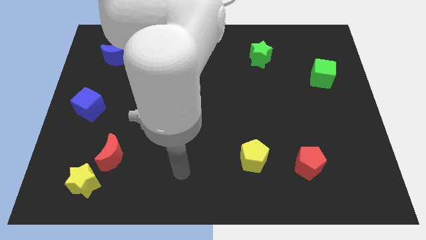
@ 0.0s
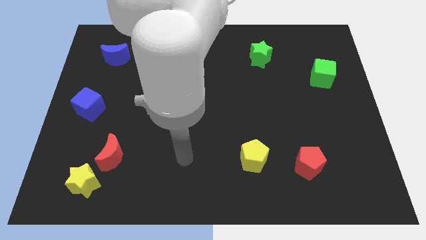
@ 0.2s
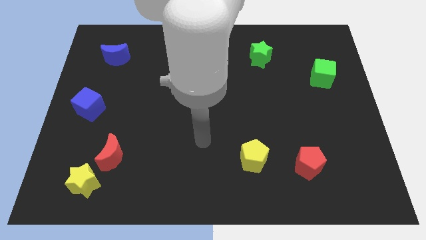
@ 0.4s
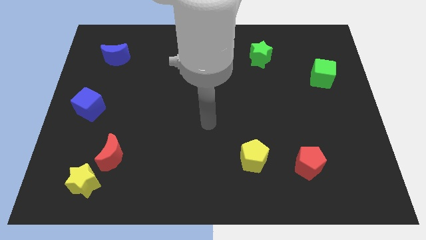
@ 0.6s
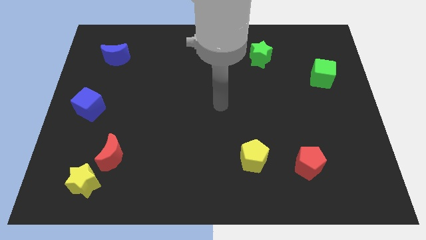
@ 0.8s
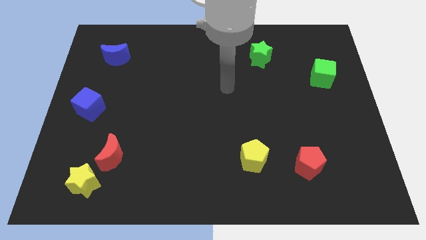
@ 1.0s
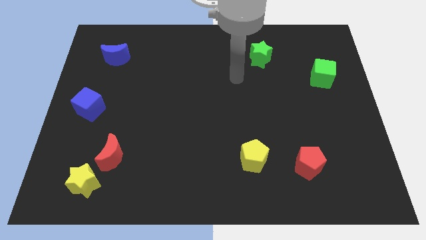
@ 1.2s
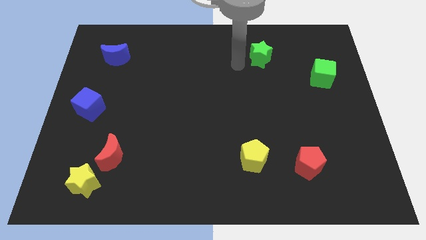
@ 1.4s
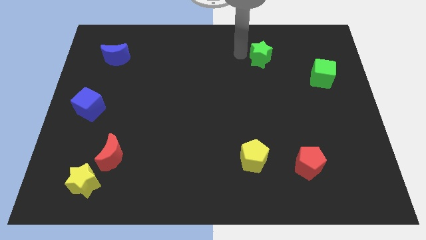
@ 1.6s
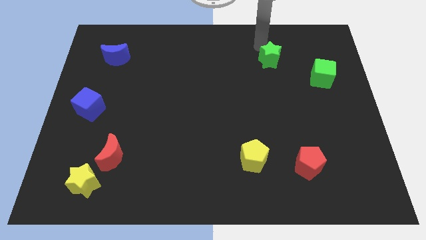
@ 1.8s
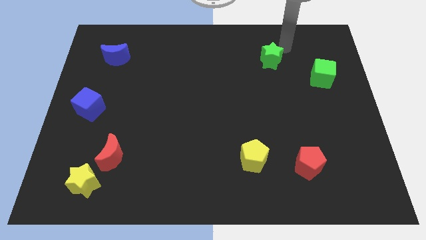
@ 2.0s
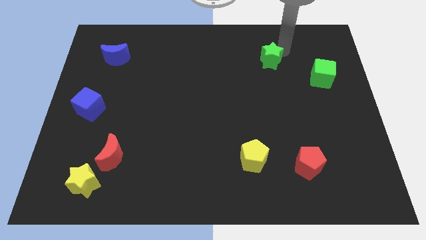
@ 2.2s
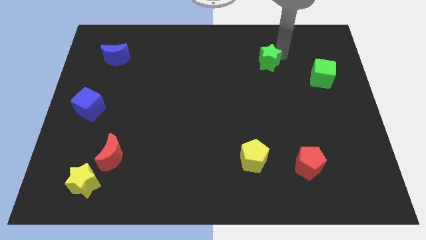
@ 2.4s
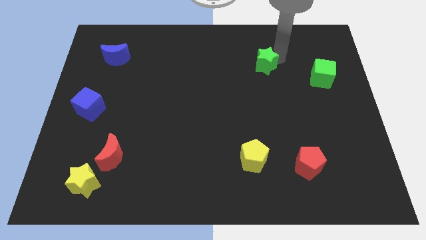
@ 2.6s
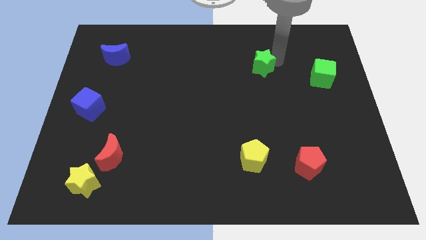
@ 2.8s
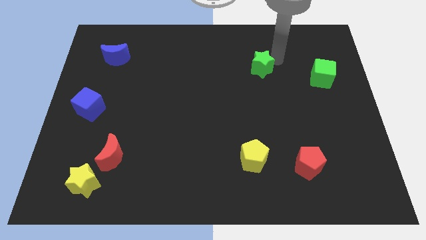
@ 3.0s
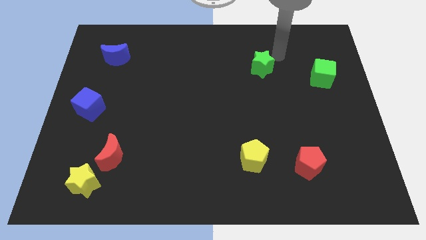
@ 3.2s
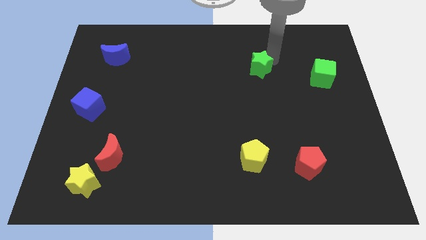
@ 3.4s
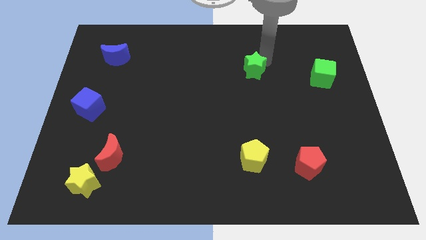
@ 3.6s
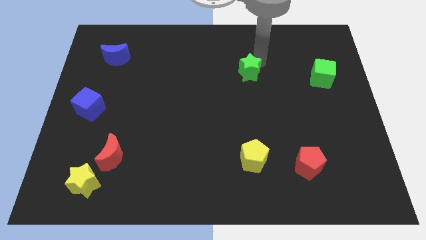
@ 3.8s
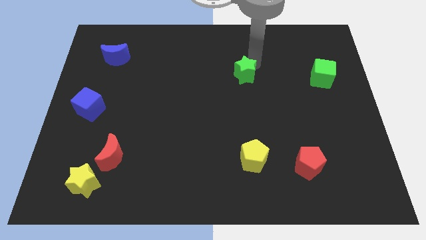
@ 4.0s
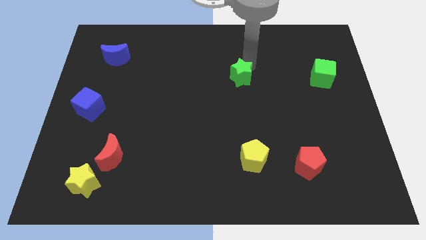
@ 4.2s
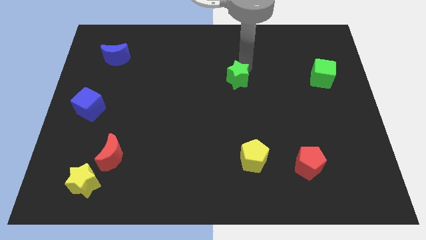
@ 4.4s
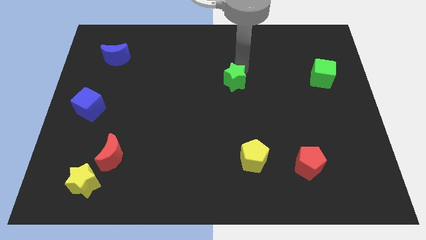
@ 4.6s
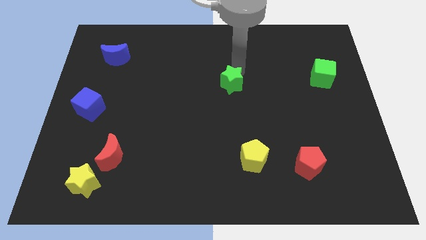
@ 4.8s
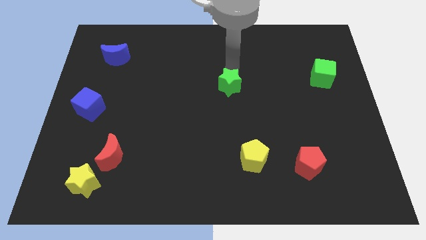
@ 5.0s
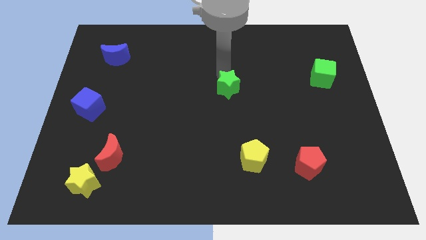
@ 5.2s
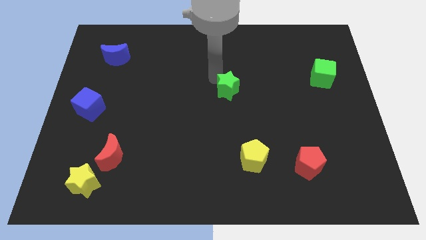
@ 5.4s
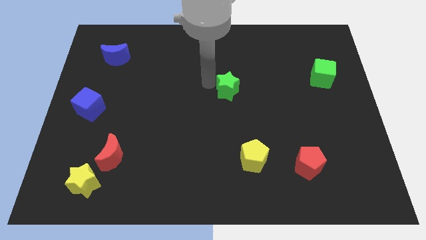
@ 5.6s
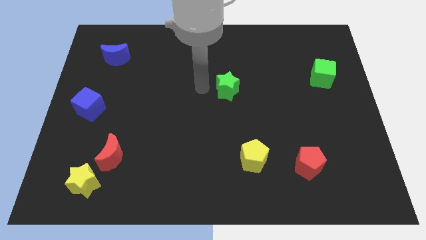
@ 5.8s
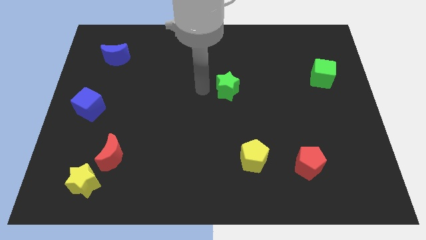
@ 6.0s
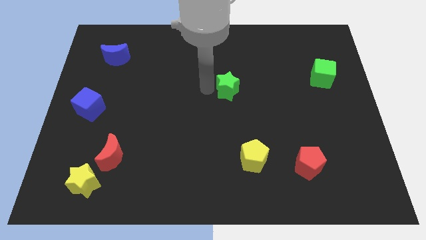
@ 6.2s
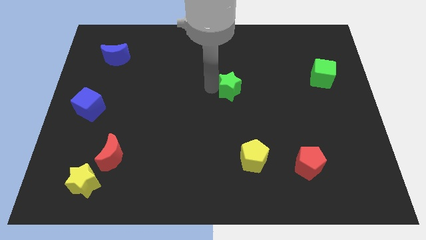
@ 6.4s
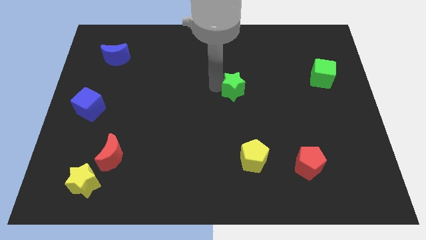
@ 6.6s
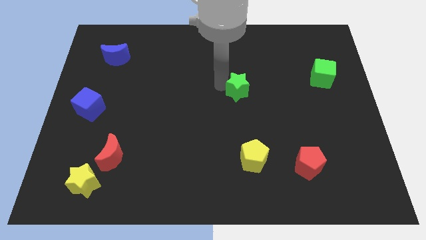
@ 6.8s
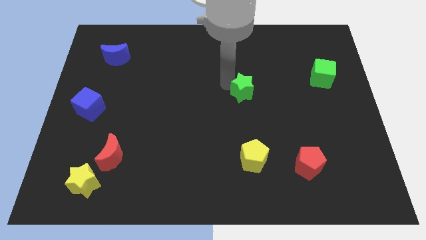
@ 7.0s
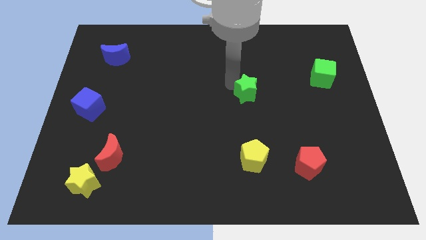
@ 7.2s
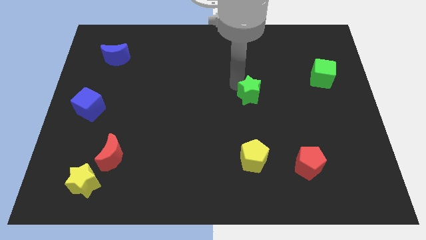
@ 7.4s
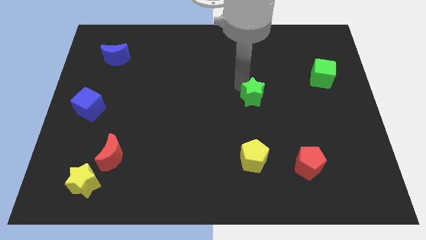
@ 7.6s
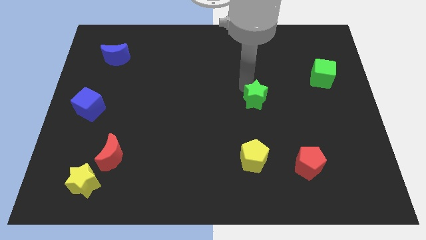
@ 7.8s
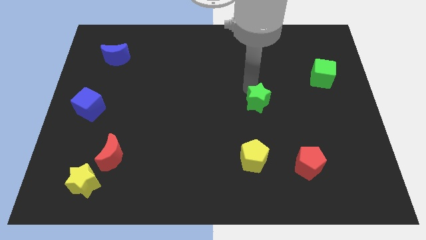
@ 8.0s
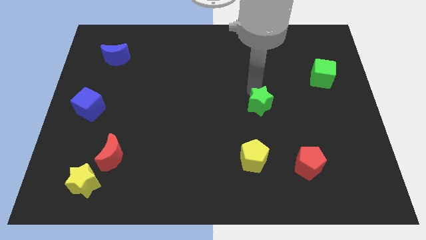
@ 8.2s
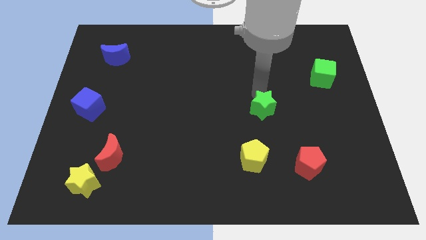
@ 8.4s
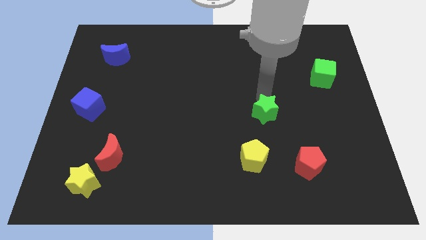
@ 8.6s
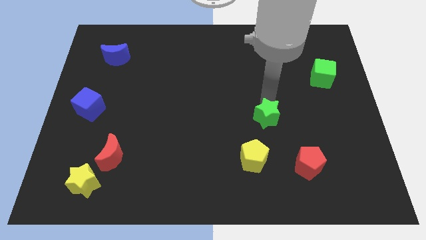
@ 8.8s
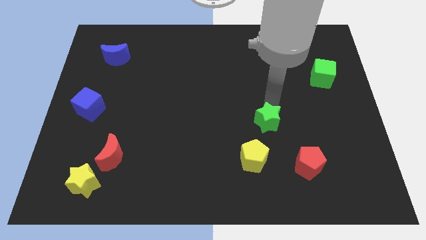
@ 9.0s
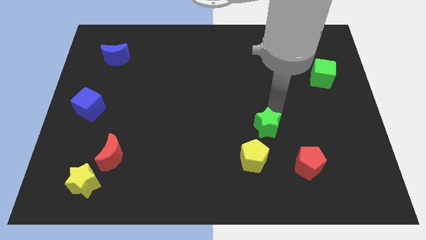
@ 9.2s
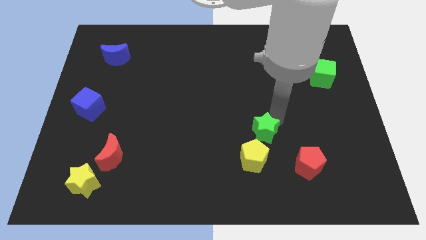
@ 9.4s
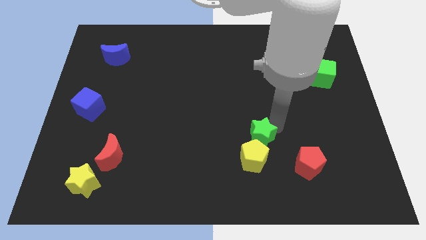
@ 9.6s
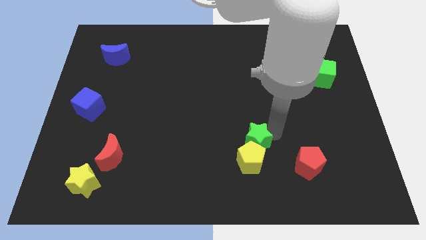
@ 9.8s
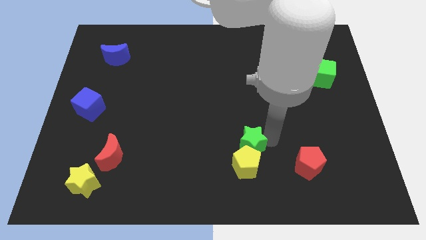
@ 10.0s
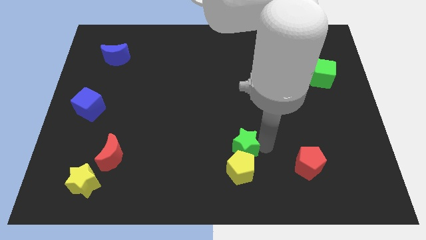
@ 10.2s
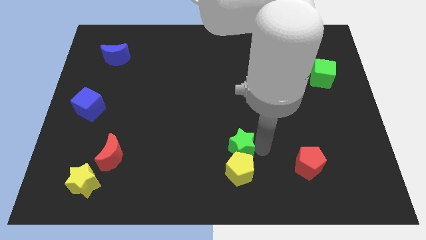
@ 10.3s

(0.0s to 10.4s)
slide the green star to the top left side of the yellow pentagon

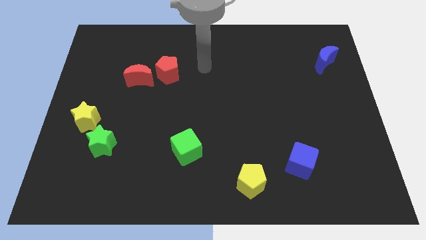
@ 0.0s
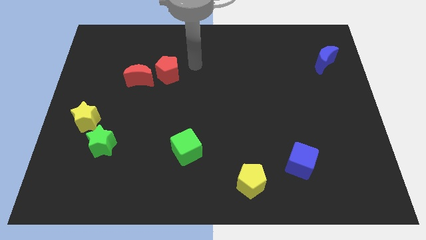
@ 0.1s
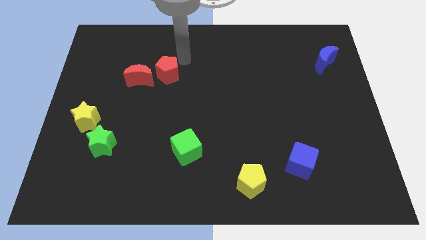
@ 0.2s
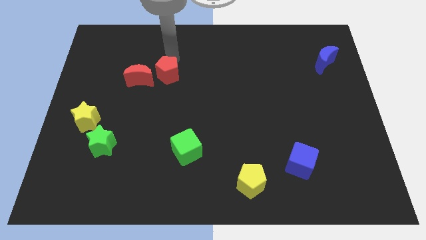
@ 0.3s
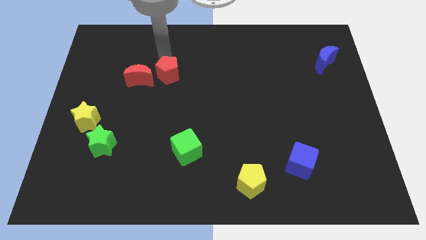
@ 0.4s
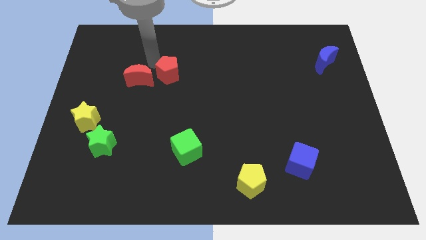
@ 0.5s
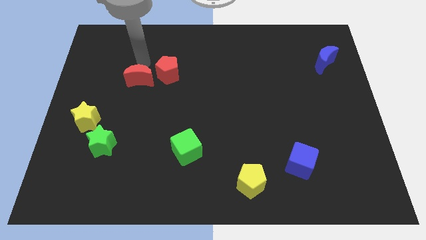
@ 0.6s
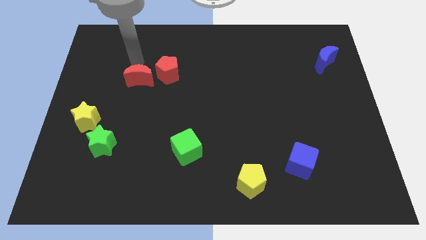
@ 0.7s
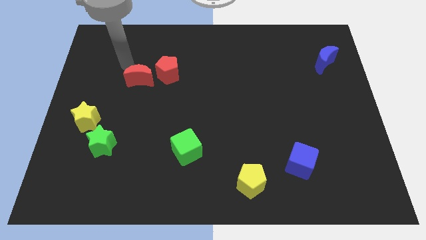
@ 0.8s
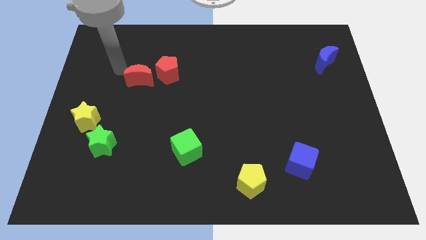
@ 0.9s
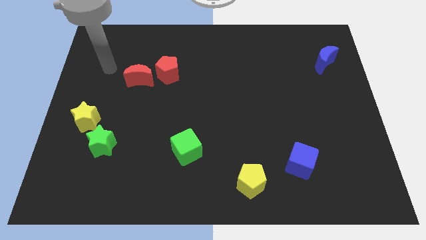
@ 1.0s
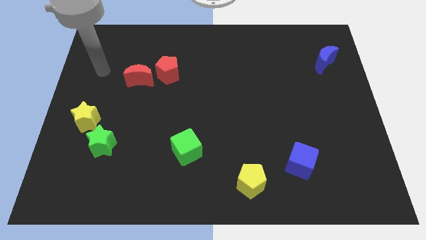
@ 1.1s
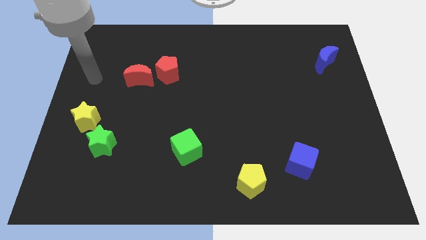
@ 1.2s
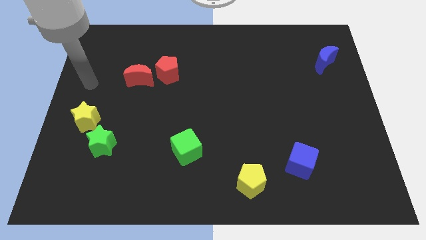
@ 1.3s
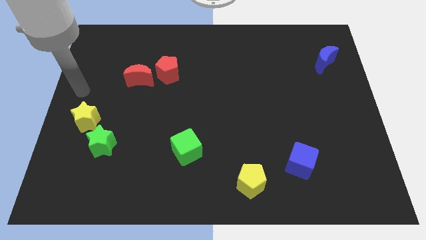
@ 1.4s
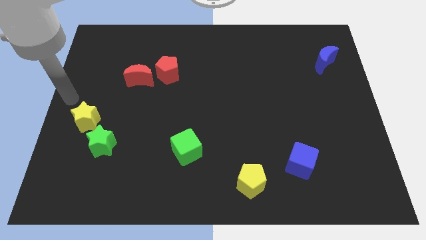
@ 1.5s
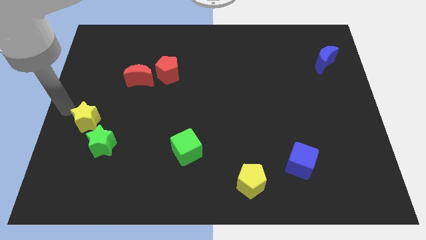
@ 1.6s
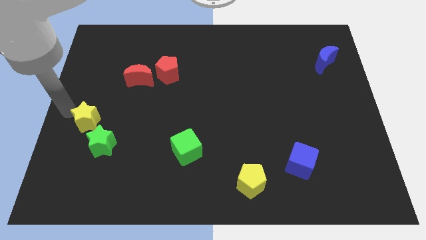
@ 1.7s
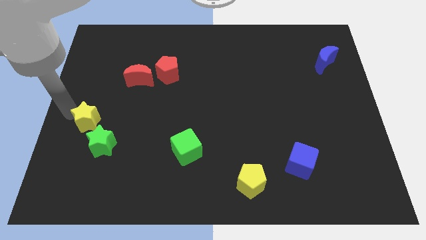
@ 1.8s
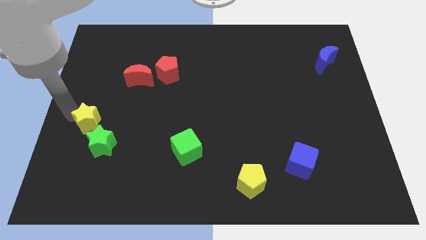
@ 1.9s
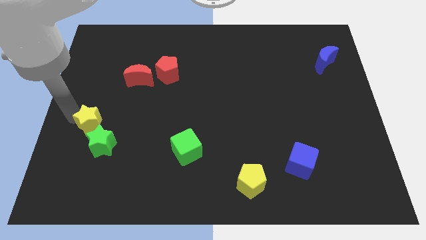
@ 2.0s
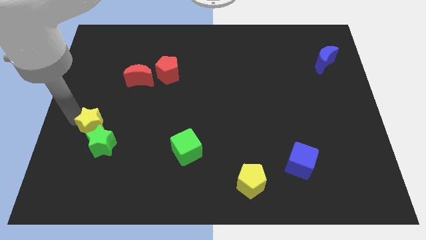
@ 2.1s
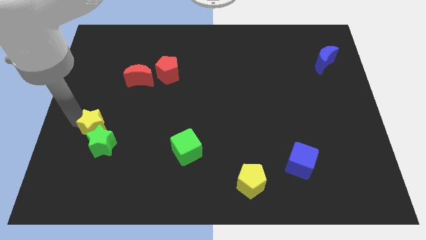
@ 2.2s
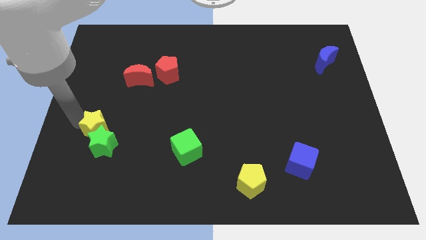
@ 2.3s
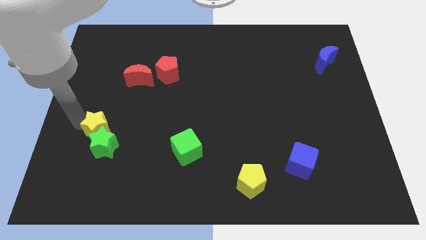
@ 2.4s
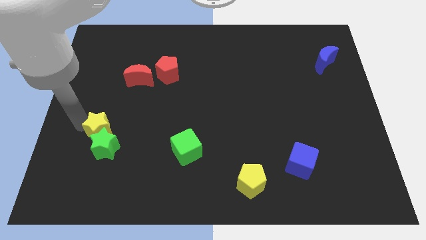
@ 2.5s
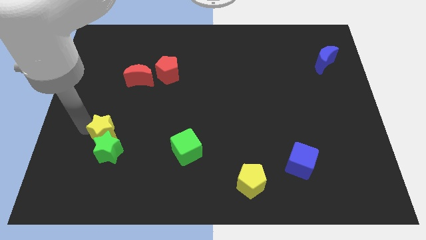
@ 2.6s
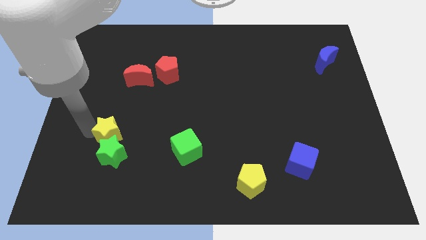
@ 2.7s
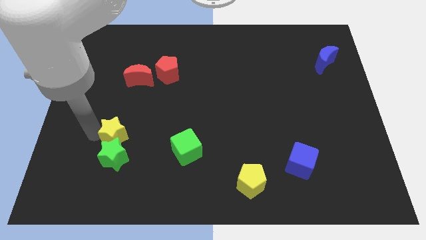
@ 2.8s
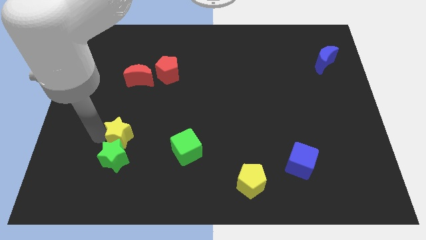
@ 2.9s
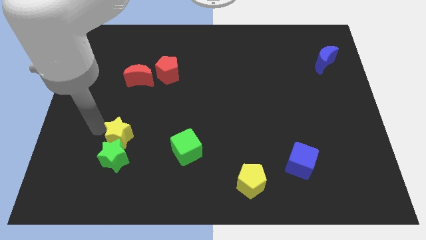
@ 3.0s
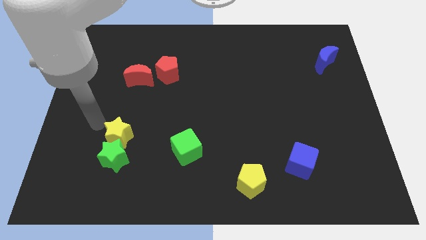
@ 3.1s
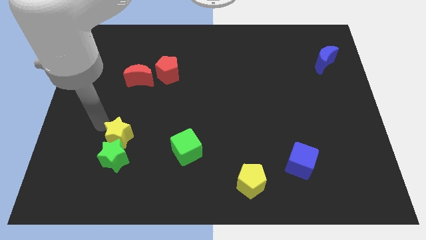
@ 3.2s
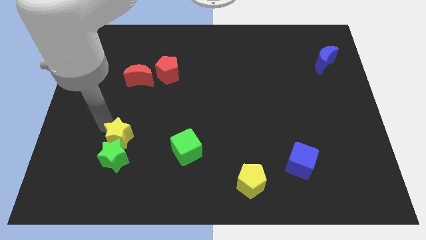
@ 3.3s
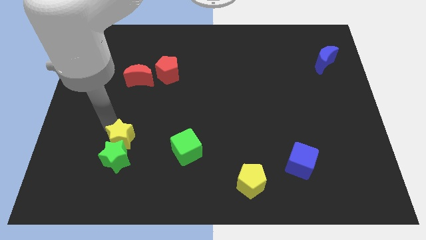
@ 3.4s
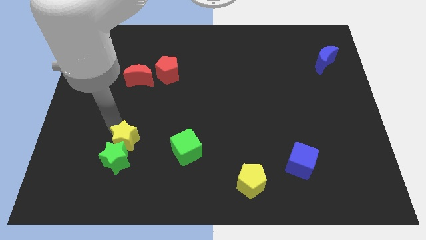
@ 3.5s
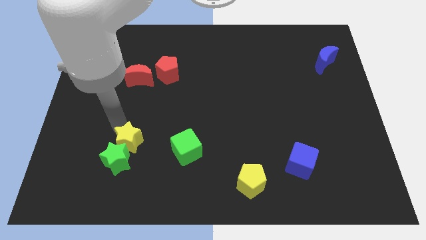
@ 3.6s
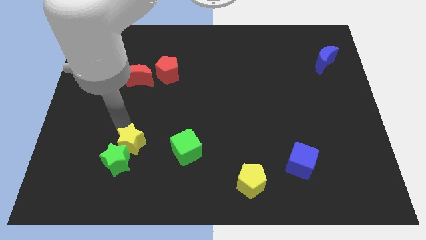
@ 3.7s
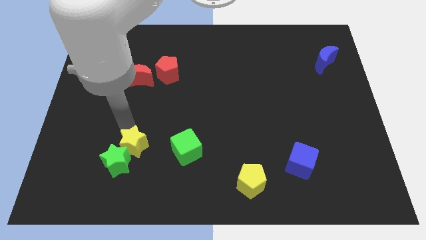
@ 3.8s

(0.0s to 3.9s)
move the yellow star just right of the green star
